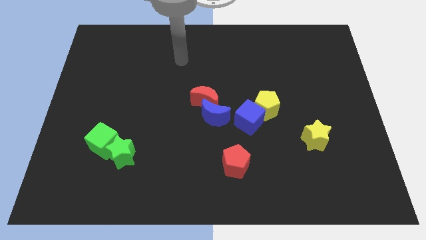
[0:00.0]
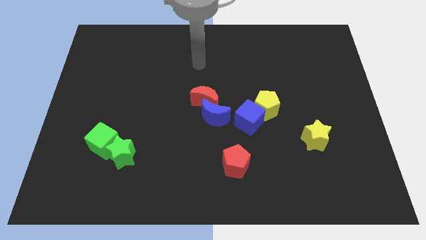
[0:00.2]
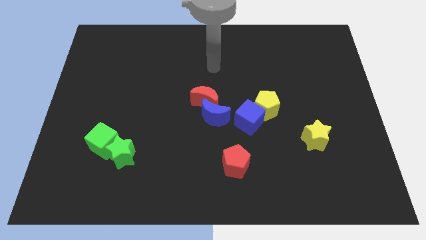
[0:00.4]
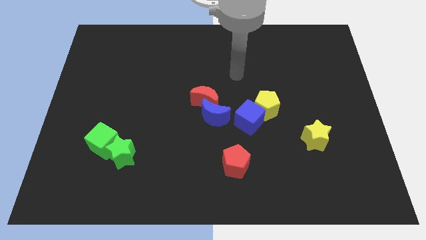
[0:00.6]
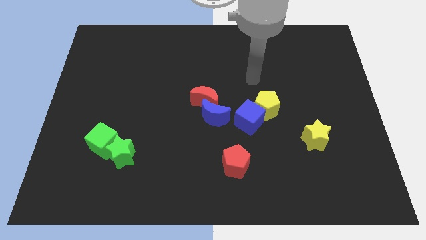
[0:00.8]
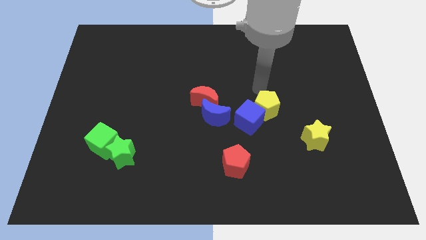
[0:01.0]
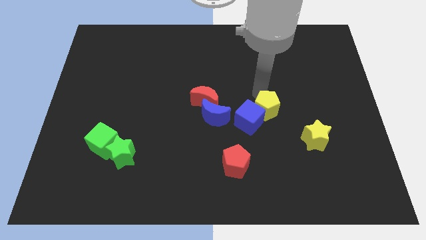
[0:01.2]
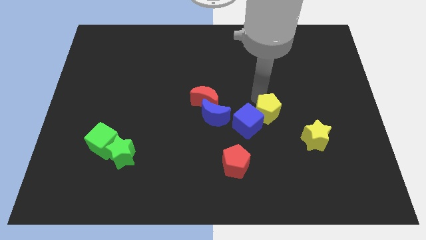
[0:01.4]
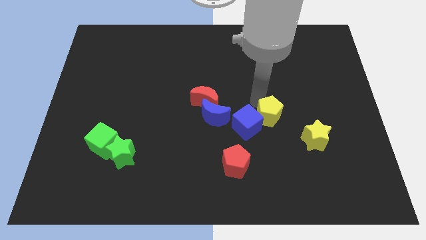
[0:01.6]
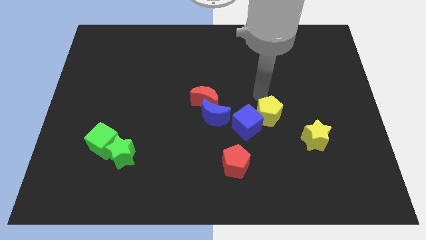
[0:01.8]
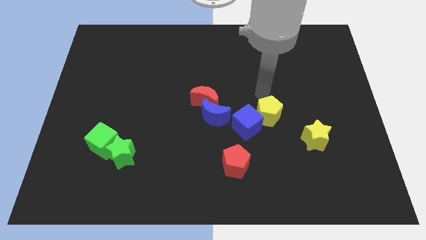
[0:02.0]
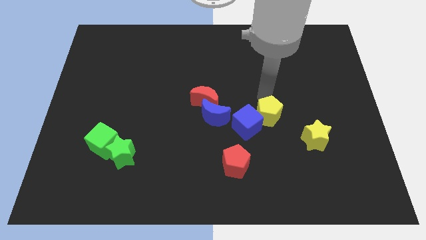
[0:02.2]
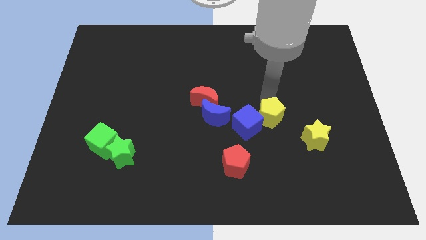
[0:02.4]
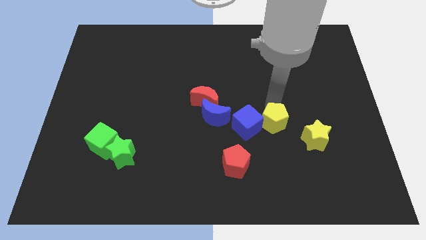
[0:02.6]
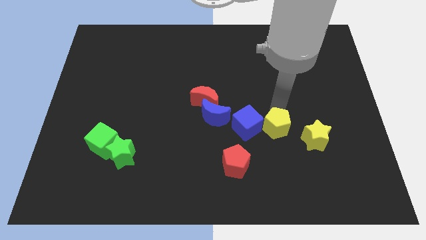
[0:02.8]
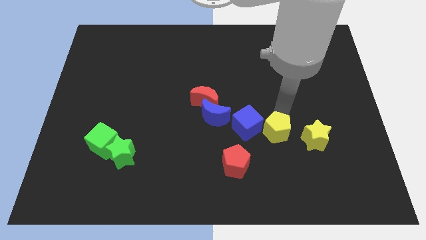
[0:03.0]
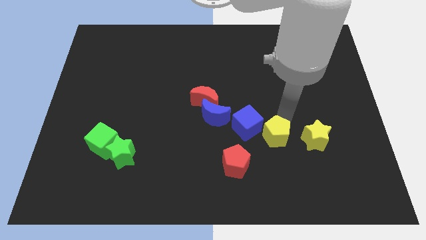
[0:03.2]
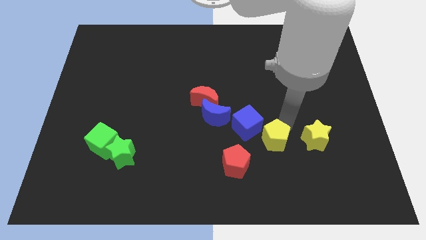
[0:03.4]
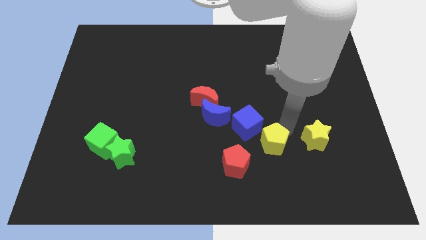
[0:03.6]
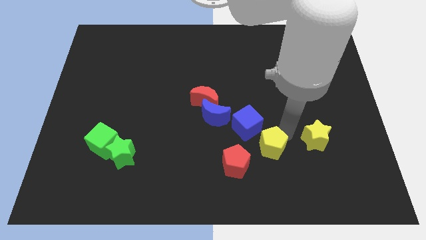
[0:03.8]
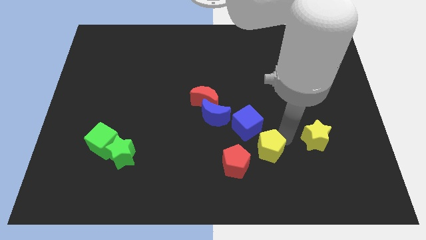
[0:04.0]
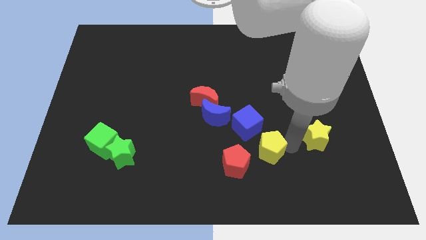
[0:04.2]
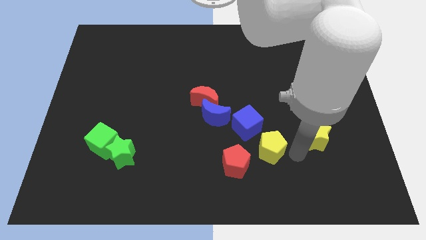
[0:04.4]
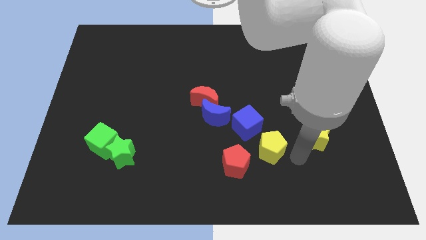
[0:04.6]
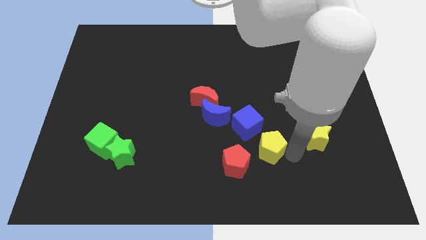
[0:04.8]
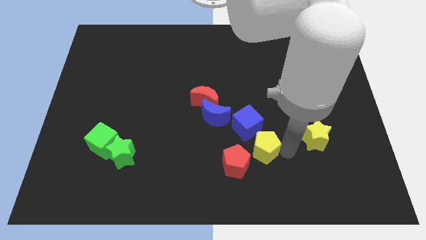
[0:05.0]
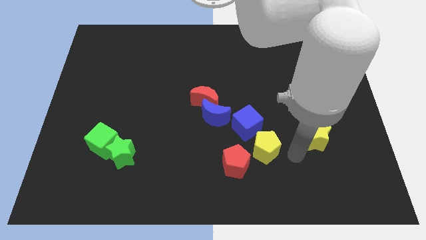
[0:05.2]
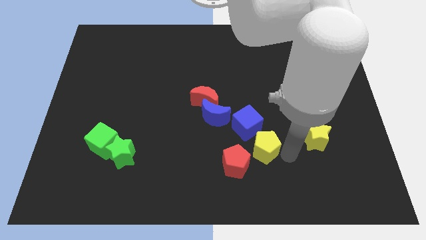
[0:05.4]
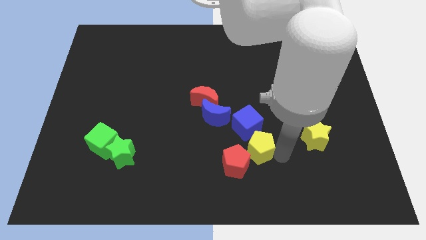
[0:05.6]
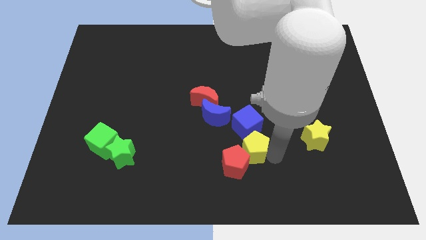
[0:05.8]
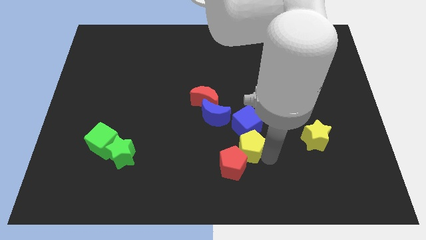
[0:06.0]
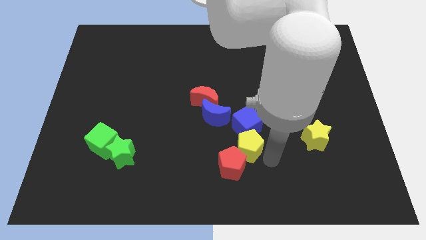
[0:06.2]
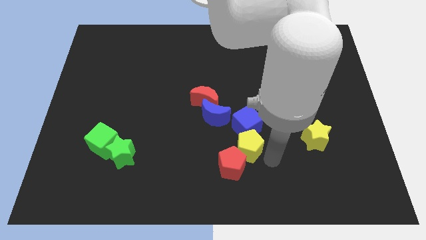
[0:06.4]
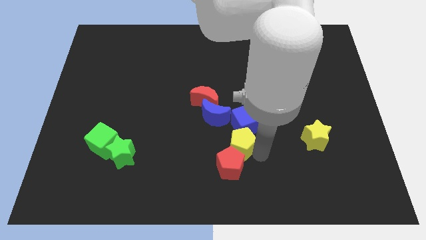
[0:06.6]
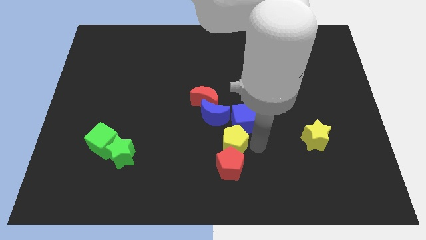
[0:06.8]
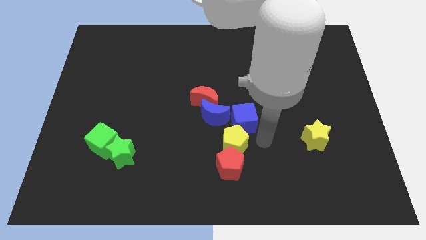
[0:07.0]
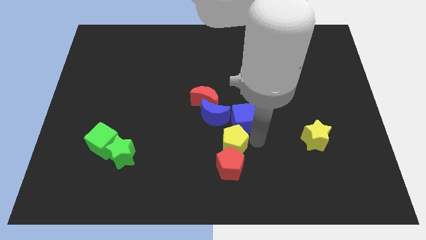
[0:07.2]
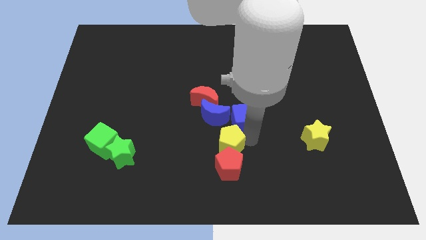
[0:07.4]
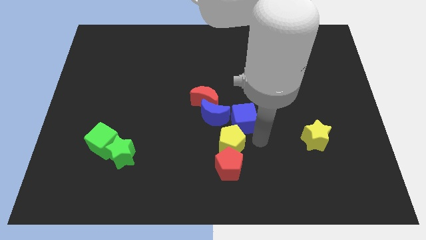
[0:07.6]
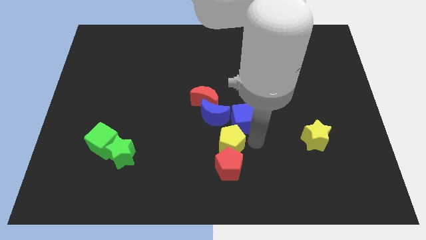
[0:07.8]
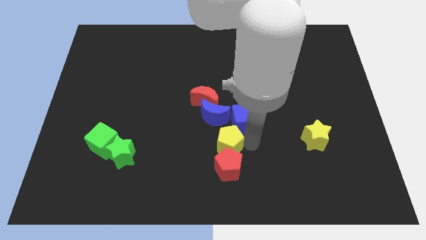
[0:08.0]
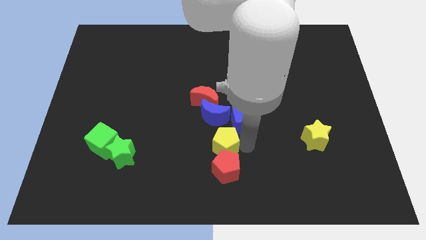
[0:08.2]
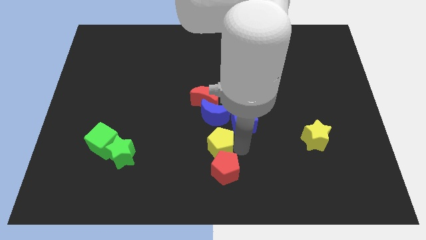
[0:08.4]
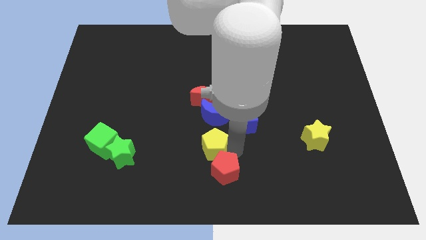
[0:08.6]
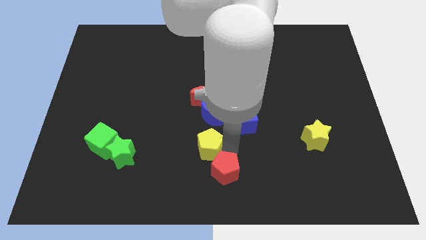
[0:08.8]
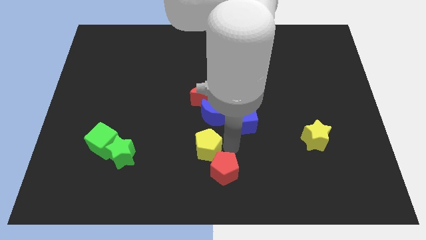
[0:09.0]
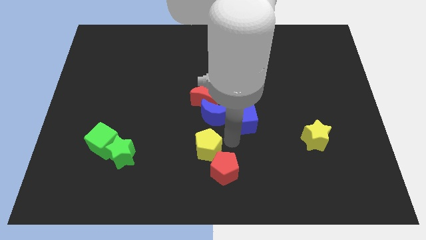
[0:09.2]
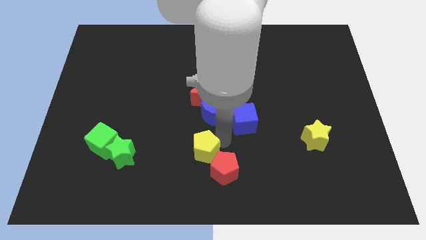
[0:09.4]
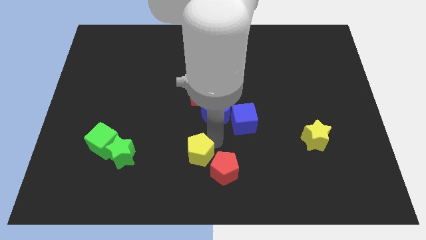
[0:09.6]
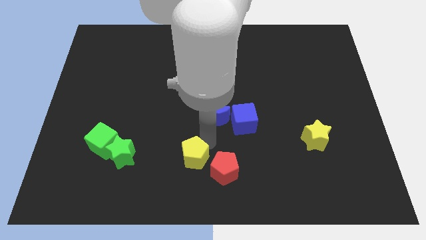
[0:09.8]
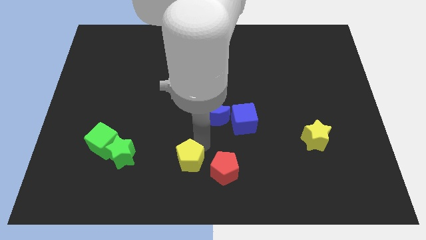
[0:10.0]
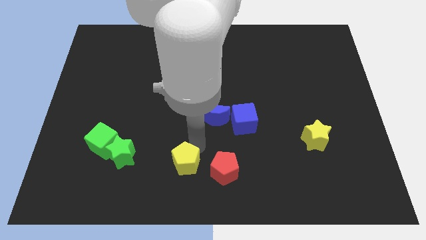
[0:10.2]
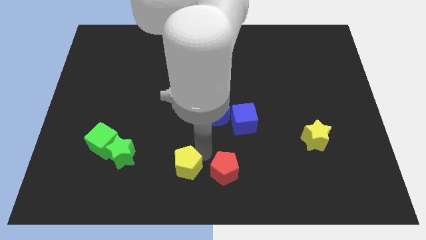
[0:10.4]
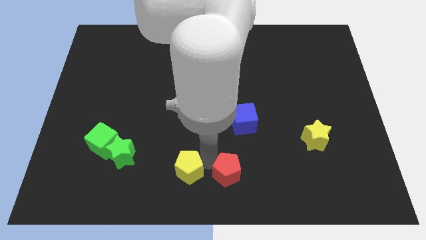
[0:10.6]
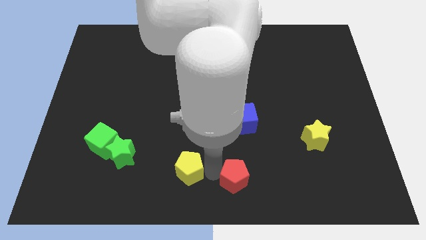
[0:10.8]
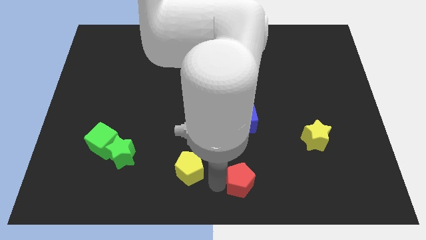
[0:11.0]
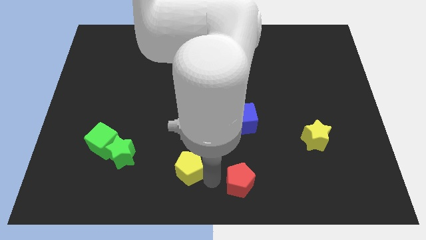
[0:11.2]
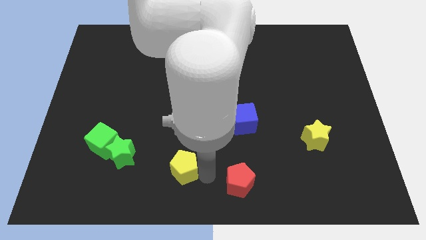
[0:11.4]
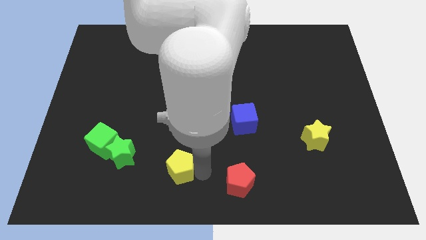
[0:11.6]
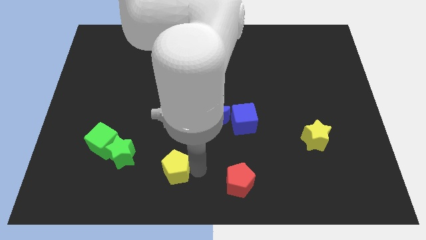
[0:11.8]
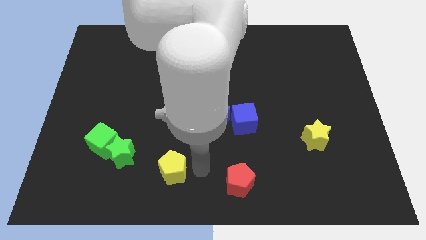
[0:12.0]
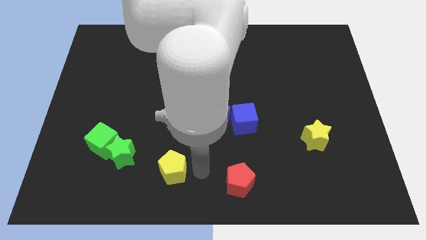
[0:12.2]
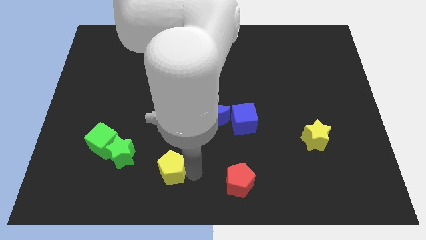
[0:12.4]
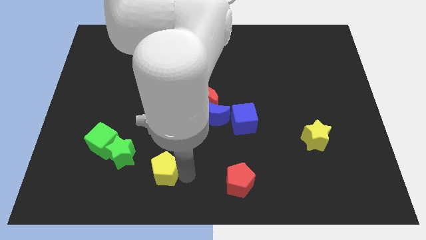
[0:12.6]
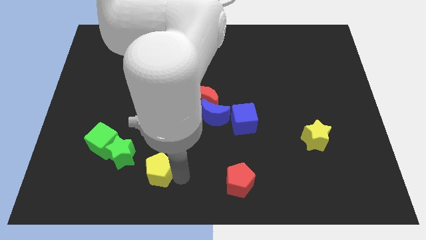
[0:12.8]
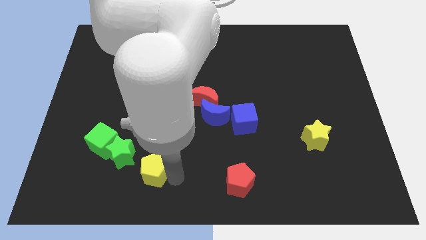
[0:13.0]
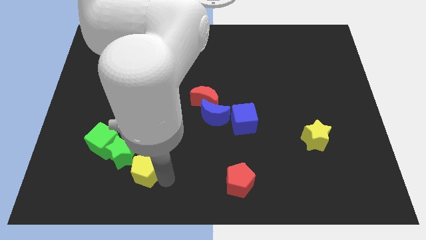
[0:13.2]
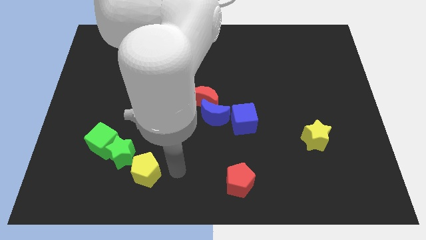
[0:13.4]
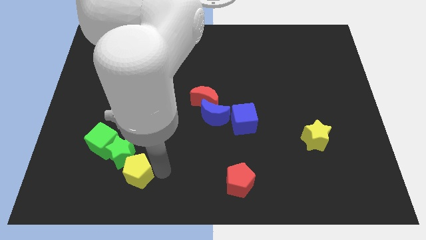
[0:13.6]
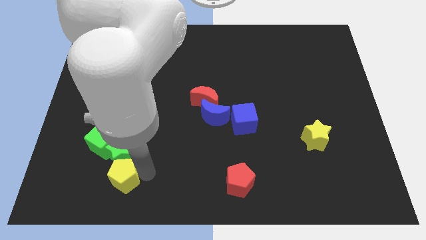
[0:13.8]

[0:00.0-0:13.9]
move the yellow pentagon to the bottom left side of the green star

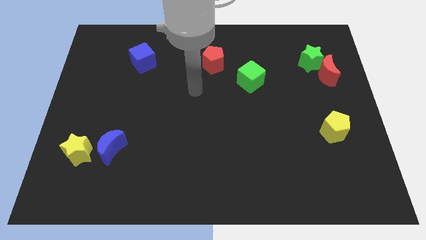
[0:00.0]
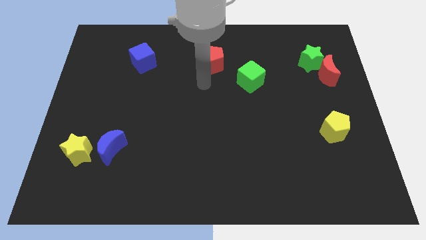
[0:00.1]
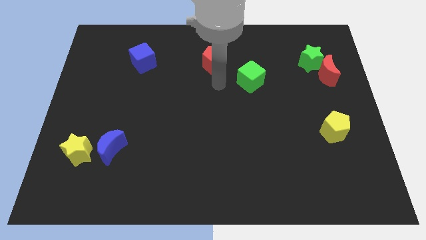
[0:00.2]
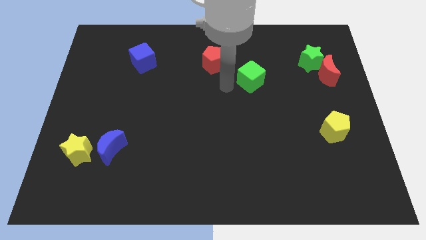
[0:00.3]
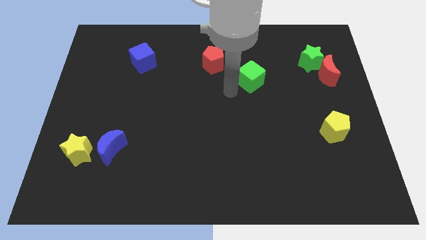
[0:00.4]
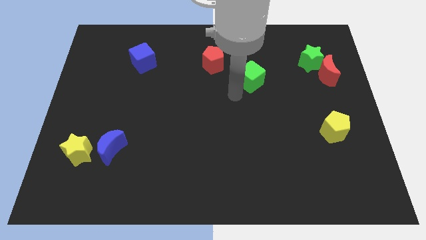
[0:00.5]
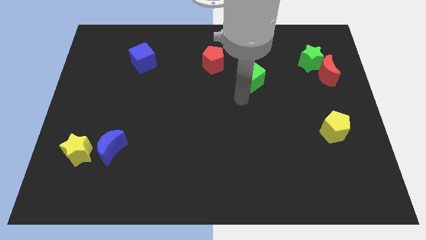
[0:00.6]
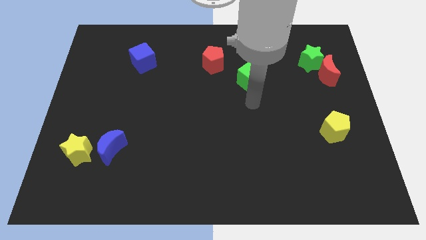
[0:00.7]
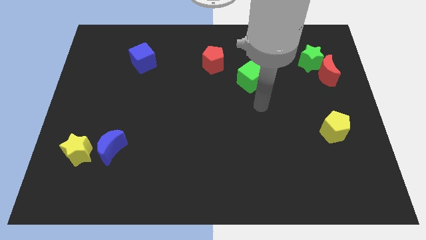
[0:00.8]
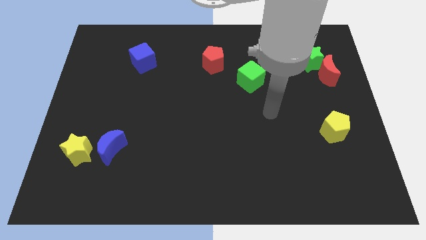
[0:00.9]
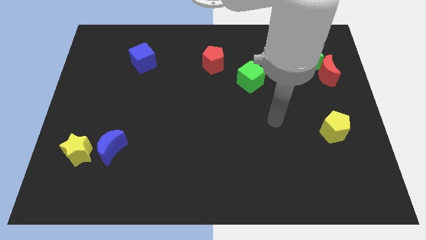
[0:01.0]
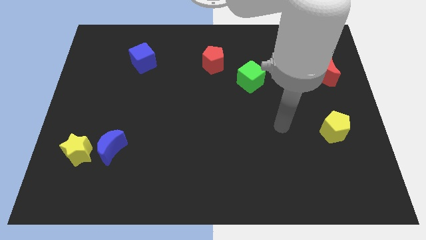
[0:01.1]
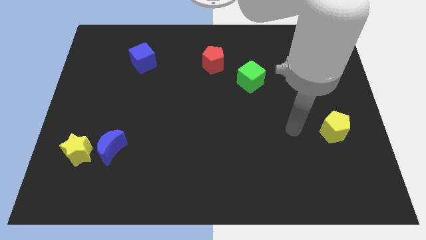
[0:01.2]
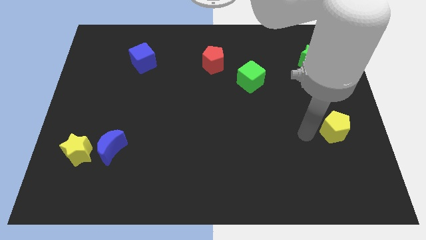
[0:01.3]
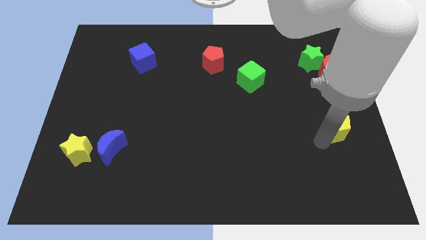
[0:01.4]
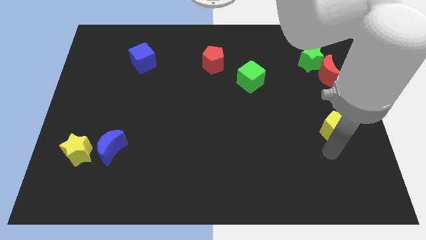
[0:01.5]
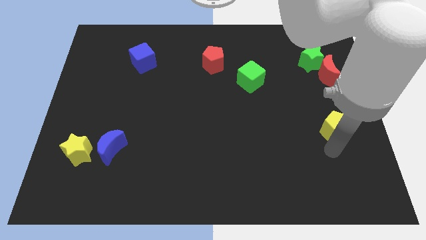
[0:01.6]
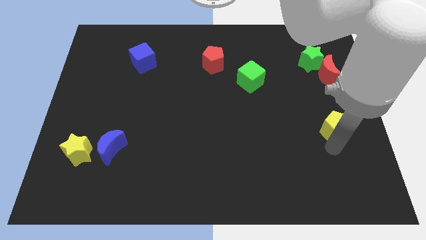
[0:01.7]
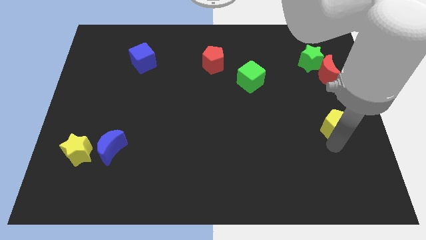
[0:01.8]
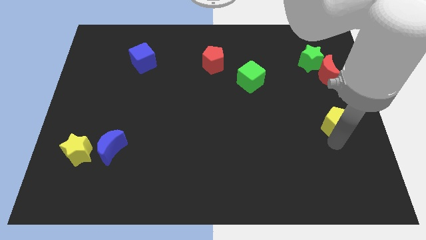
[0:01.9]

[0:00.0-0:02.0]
move the yellow pentagon to the bottom side of the red moon
